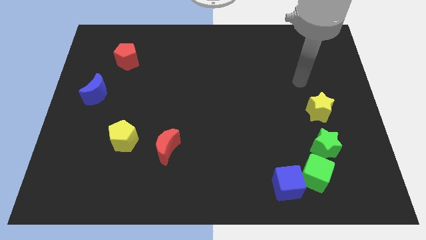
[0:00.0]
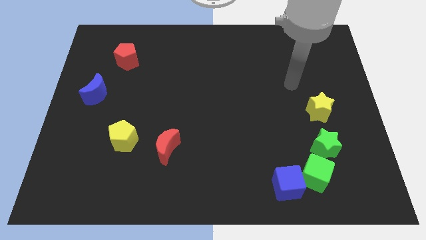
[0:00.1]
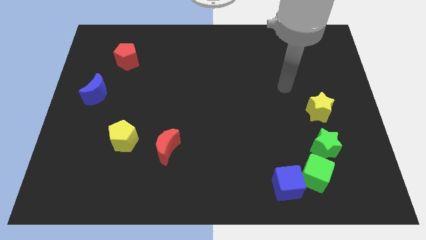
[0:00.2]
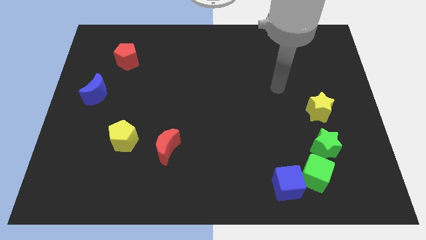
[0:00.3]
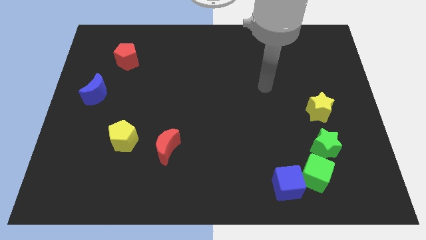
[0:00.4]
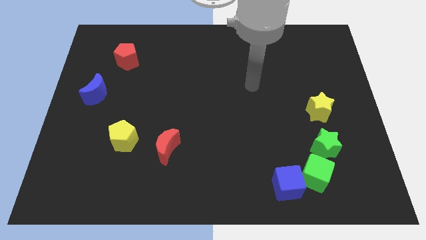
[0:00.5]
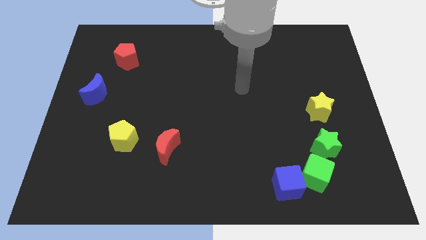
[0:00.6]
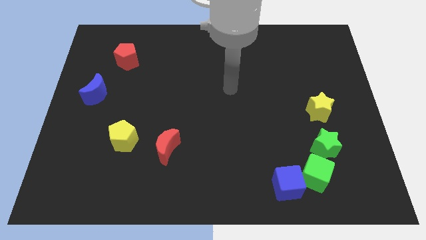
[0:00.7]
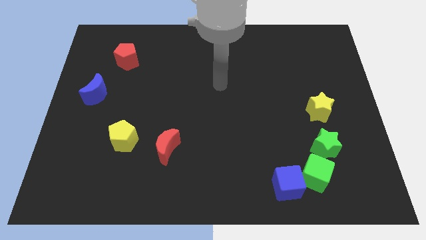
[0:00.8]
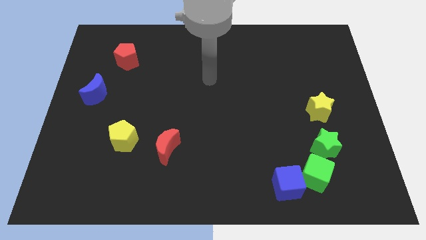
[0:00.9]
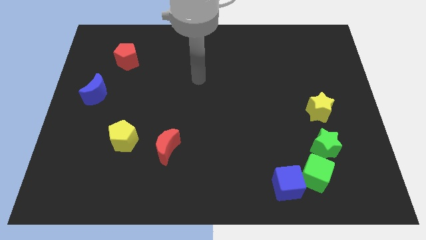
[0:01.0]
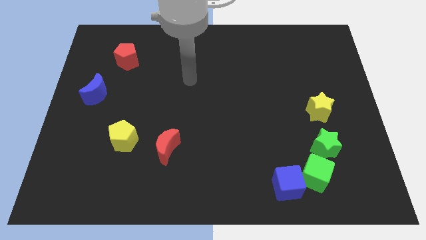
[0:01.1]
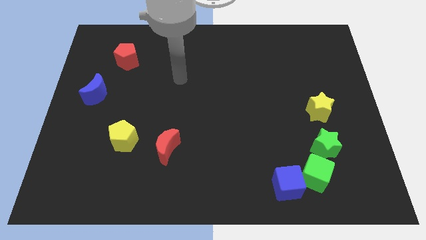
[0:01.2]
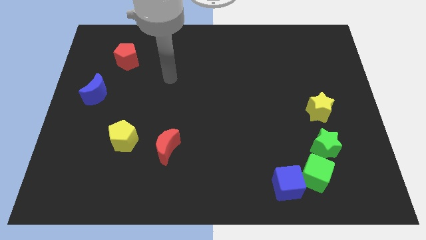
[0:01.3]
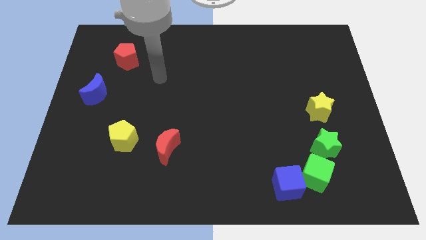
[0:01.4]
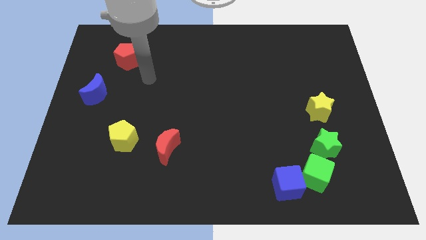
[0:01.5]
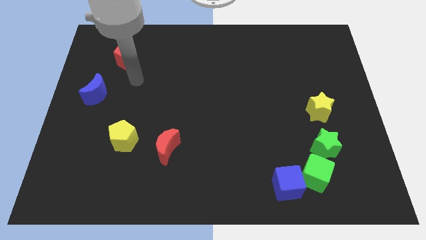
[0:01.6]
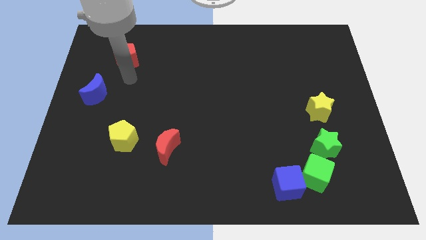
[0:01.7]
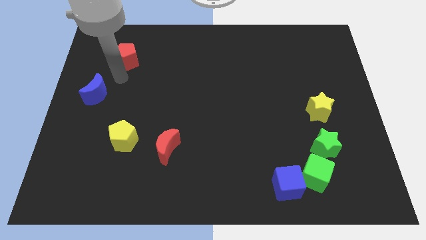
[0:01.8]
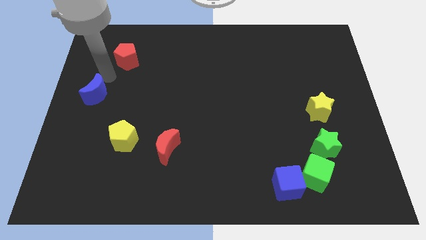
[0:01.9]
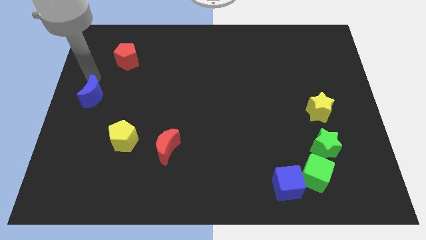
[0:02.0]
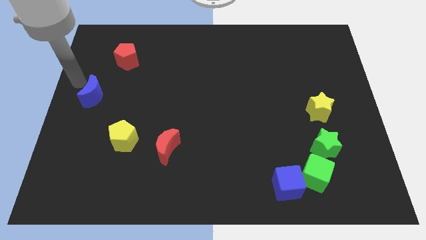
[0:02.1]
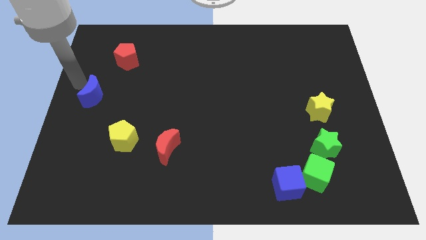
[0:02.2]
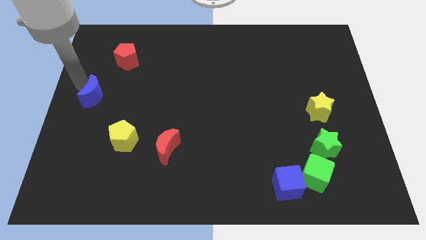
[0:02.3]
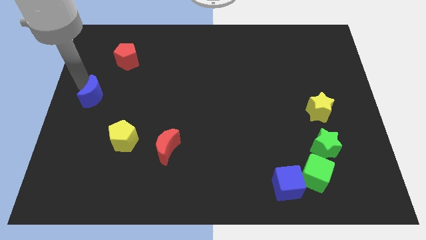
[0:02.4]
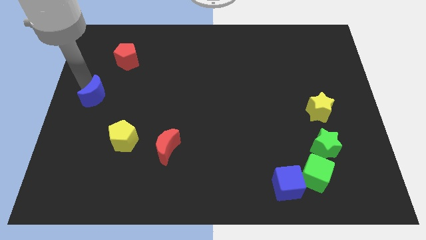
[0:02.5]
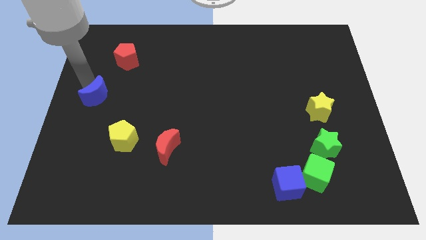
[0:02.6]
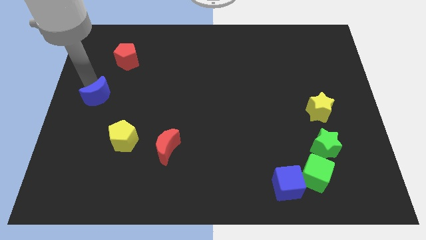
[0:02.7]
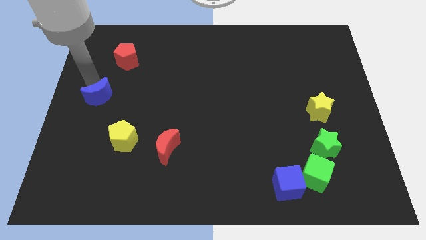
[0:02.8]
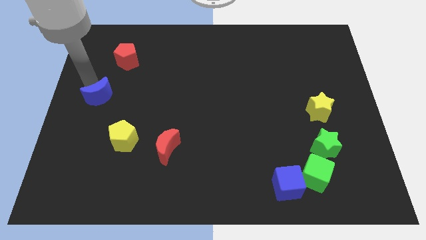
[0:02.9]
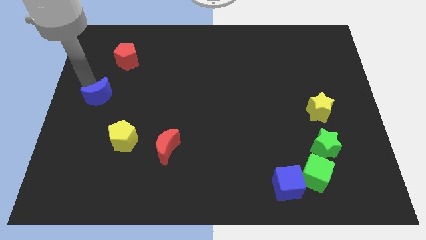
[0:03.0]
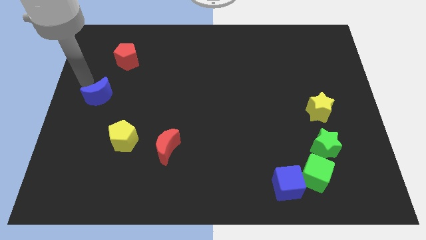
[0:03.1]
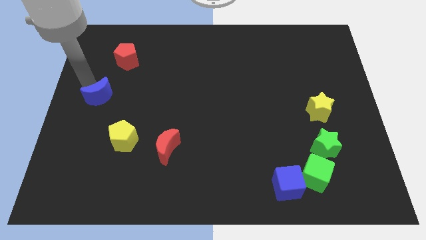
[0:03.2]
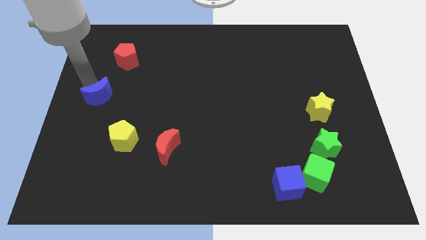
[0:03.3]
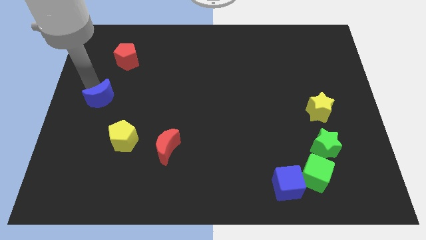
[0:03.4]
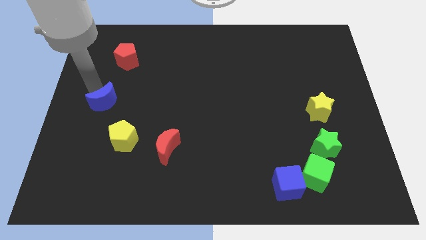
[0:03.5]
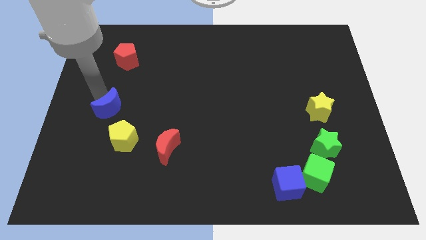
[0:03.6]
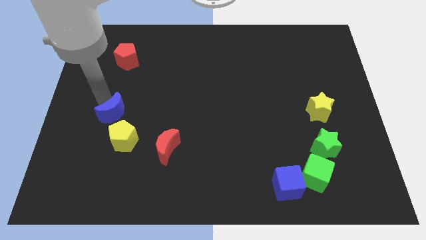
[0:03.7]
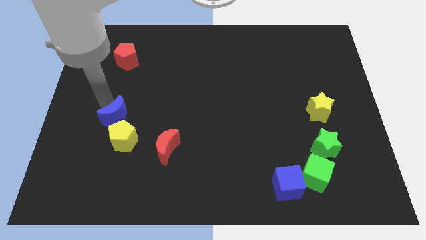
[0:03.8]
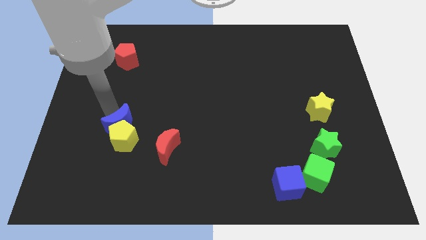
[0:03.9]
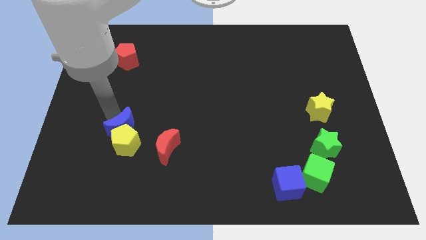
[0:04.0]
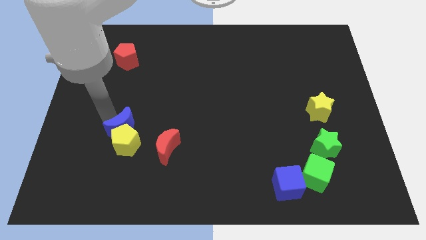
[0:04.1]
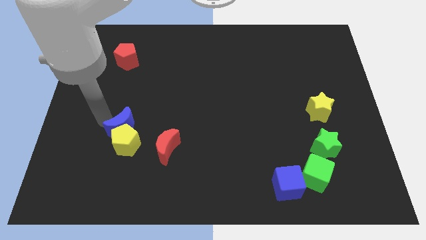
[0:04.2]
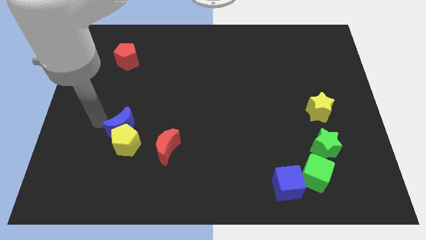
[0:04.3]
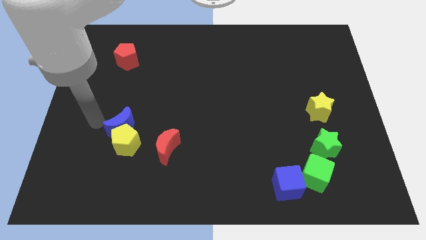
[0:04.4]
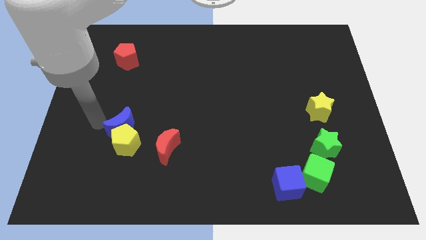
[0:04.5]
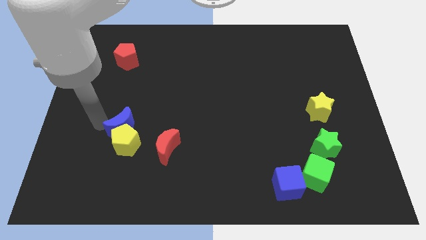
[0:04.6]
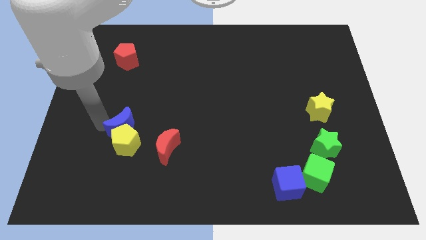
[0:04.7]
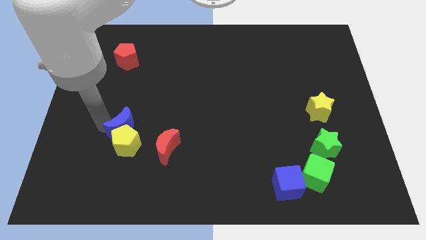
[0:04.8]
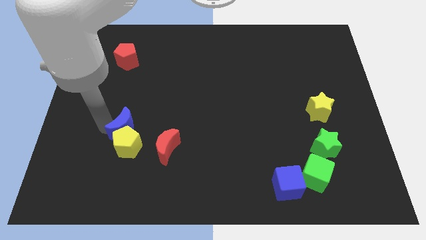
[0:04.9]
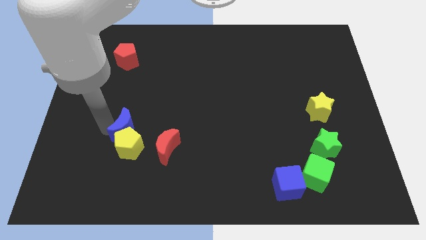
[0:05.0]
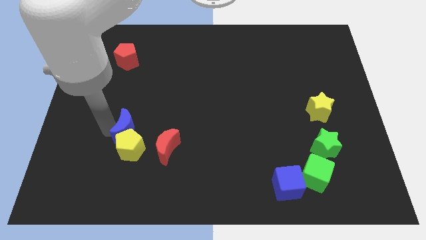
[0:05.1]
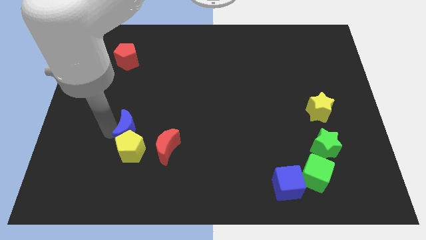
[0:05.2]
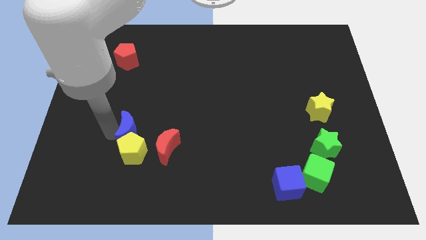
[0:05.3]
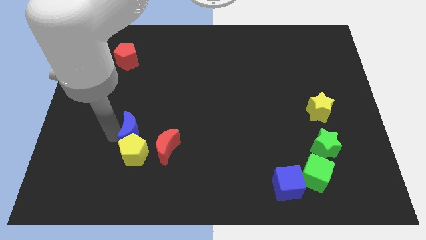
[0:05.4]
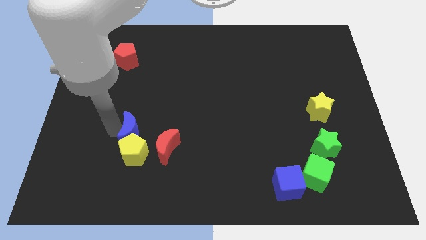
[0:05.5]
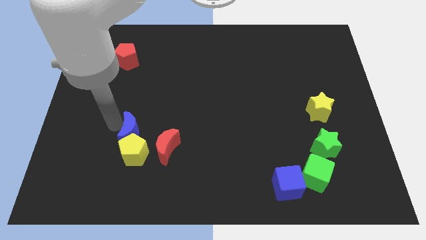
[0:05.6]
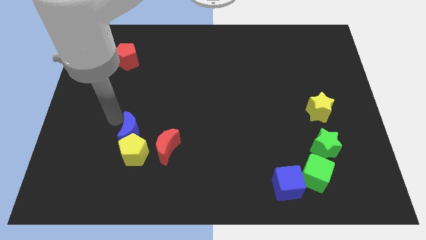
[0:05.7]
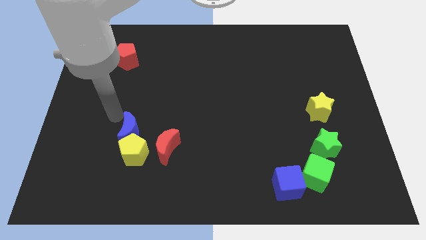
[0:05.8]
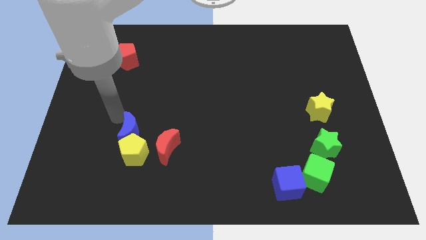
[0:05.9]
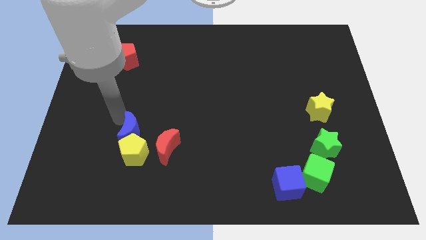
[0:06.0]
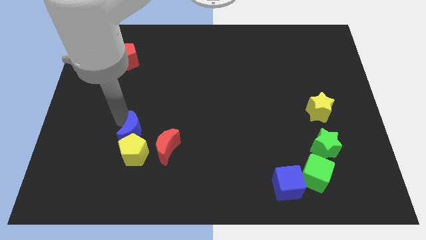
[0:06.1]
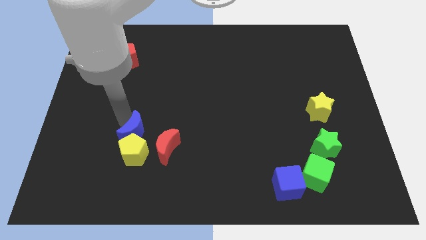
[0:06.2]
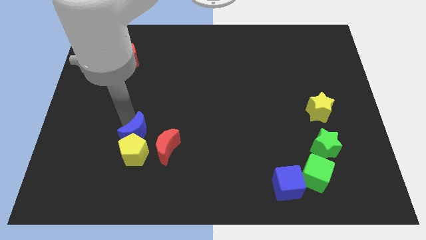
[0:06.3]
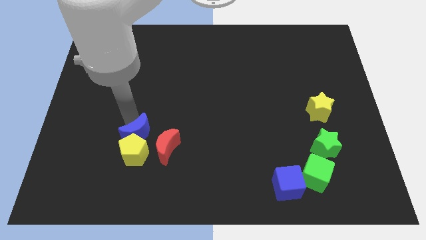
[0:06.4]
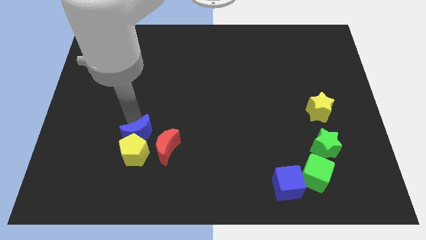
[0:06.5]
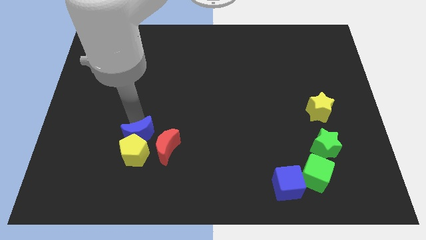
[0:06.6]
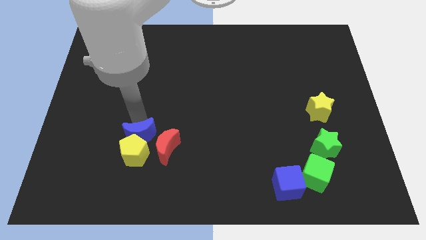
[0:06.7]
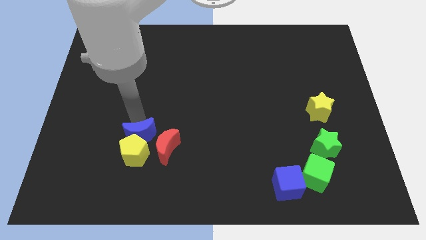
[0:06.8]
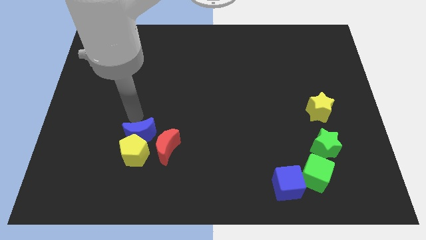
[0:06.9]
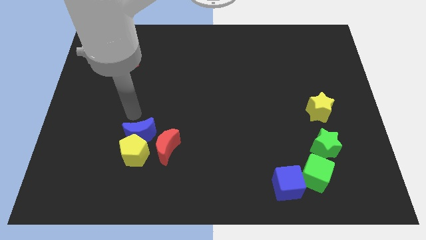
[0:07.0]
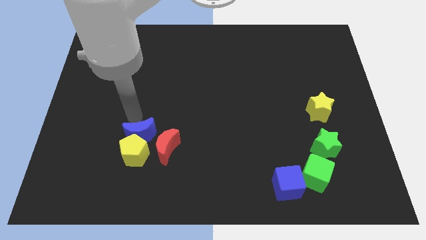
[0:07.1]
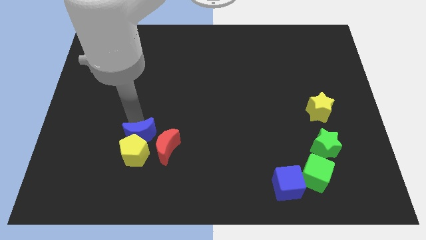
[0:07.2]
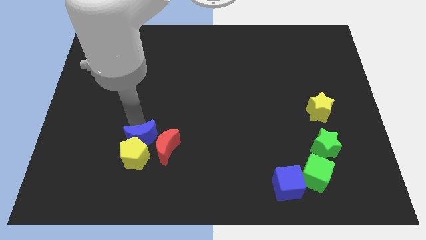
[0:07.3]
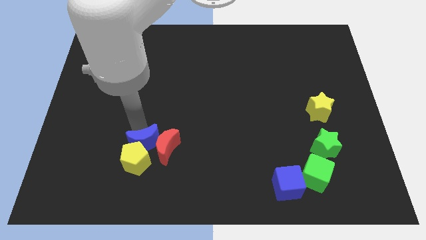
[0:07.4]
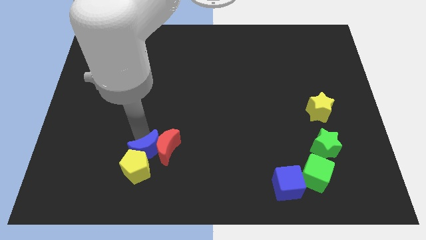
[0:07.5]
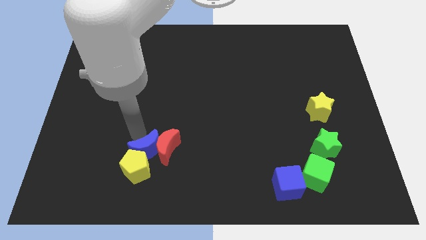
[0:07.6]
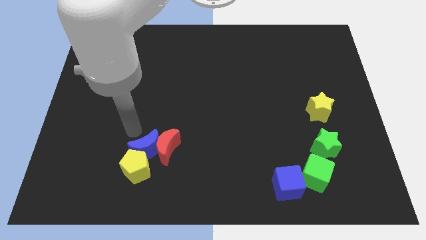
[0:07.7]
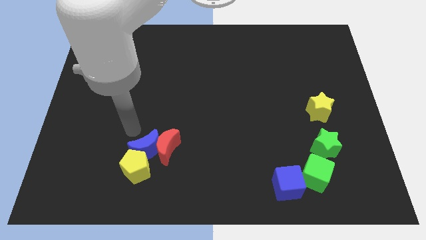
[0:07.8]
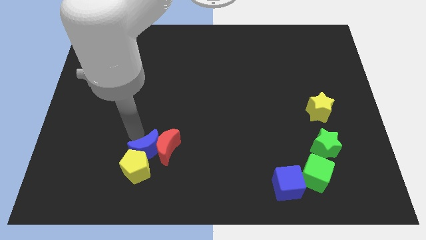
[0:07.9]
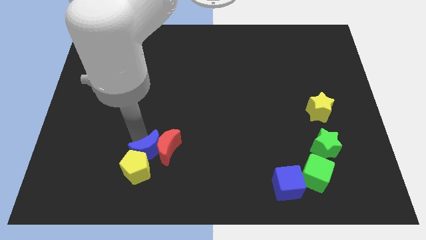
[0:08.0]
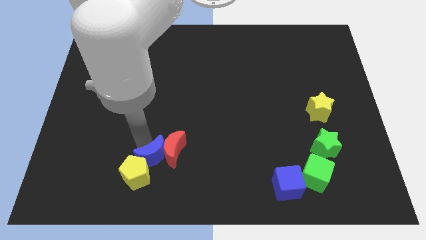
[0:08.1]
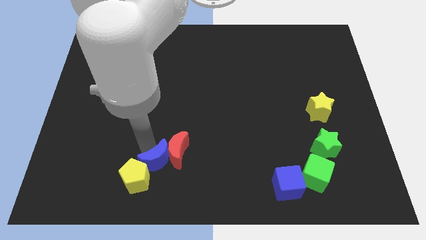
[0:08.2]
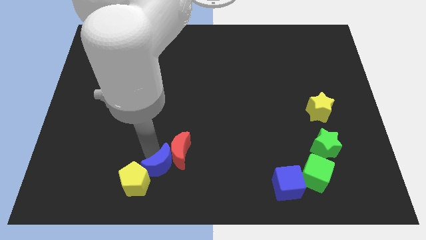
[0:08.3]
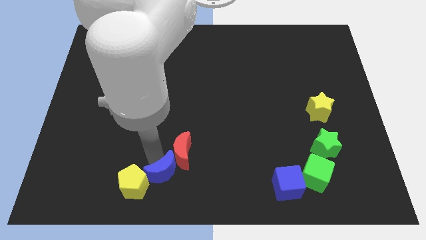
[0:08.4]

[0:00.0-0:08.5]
slide the blue moon to the bottom side
